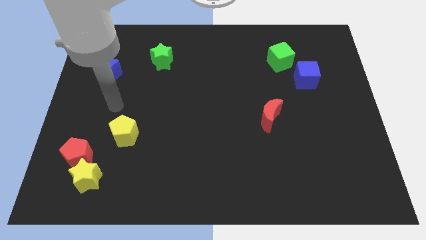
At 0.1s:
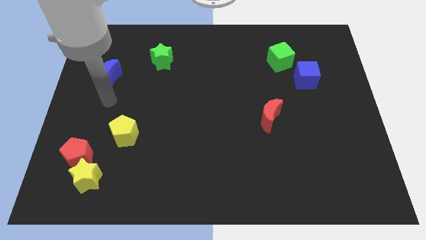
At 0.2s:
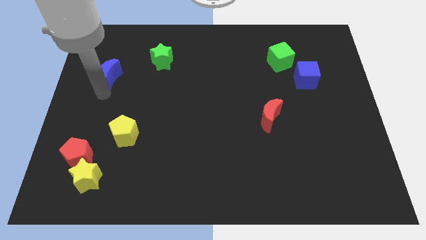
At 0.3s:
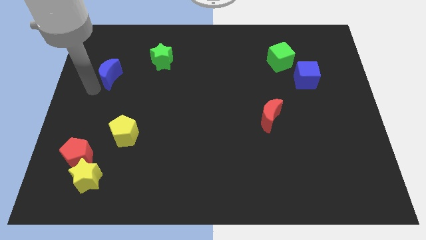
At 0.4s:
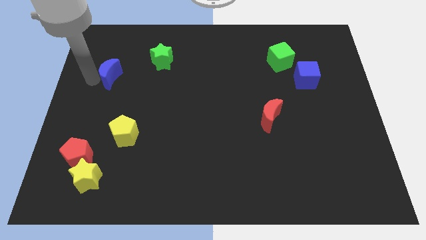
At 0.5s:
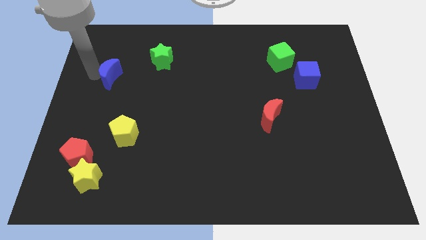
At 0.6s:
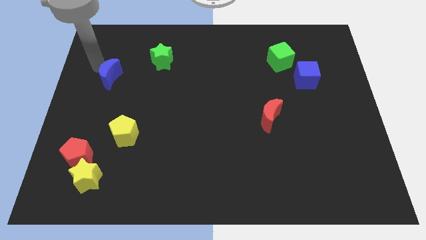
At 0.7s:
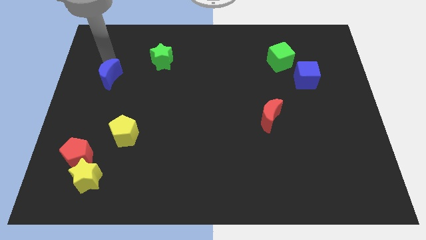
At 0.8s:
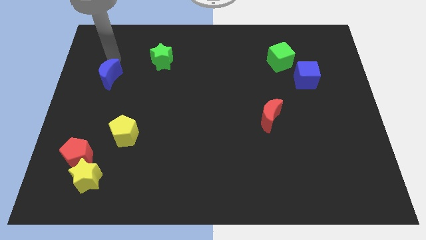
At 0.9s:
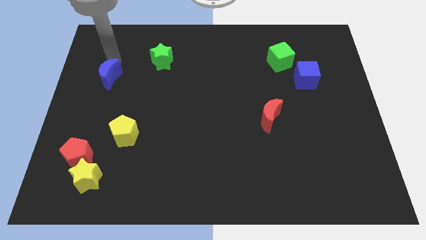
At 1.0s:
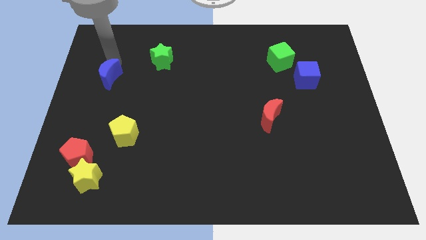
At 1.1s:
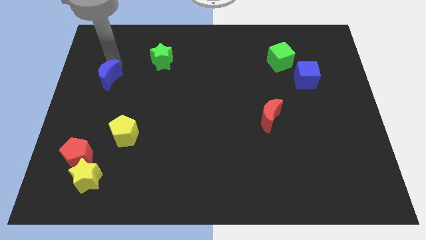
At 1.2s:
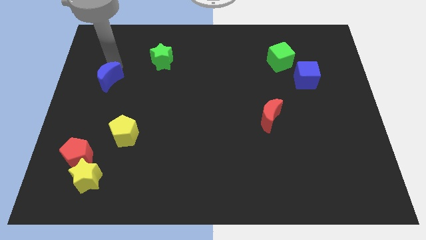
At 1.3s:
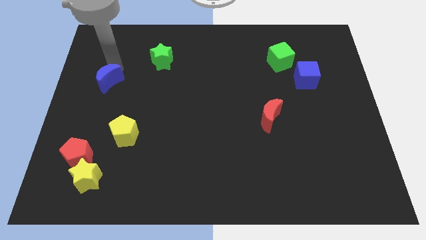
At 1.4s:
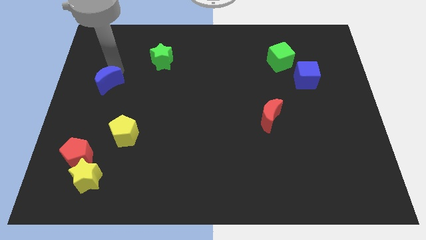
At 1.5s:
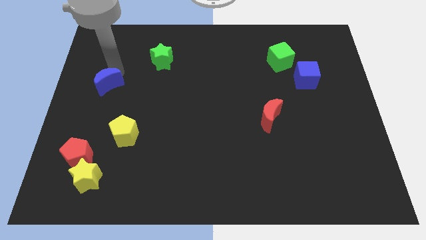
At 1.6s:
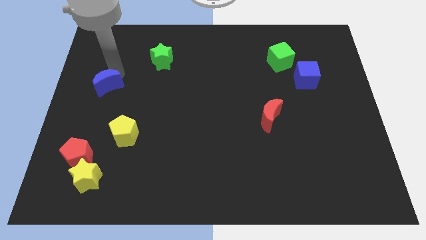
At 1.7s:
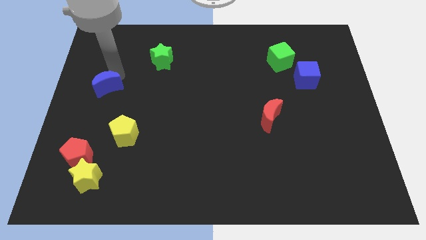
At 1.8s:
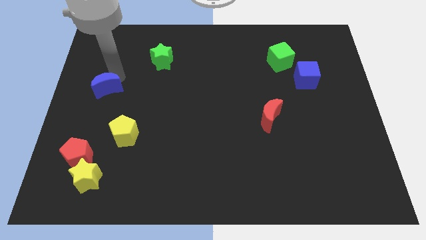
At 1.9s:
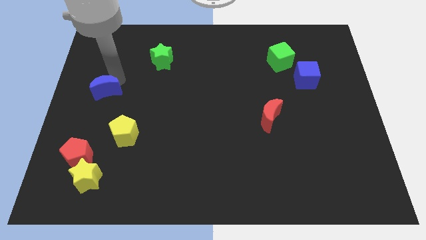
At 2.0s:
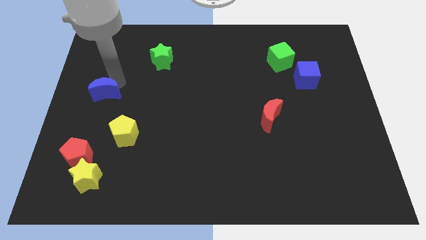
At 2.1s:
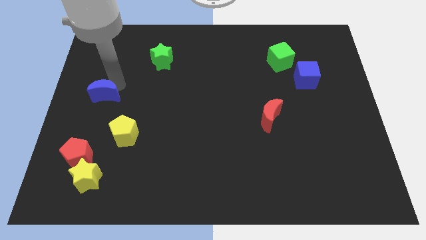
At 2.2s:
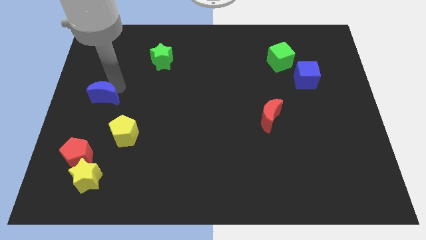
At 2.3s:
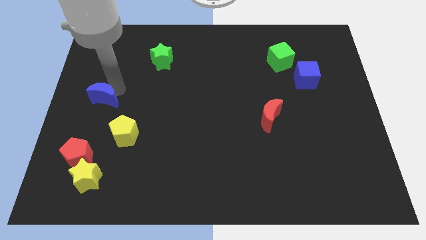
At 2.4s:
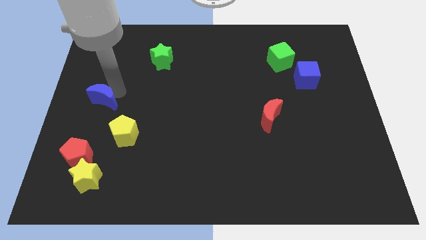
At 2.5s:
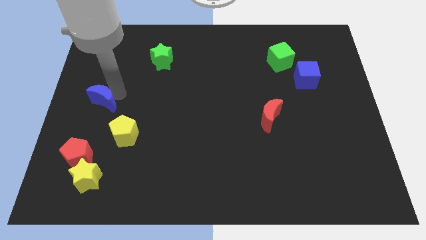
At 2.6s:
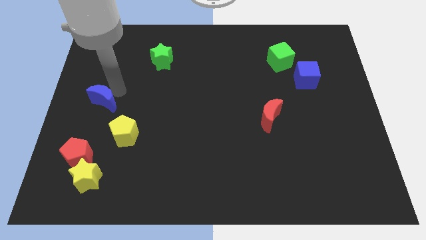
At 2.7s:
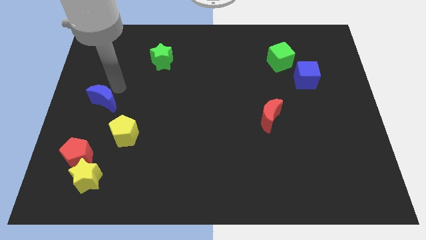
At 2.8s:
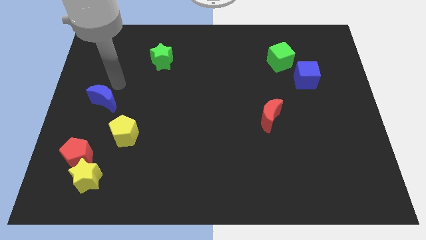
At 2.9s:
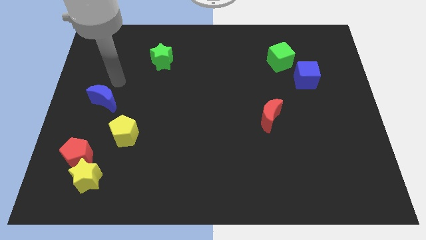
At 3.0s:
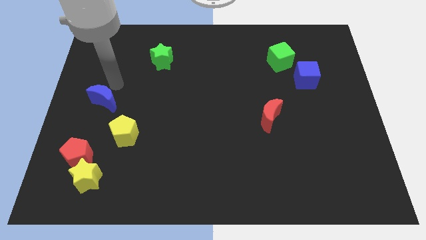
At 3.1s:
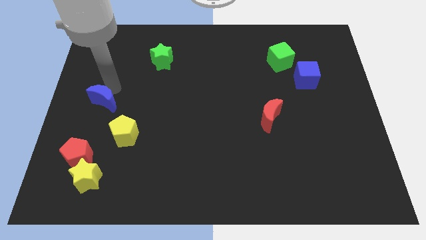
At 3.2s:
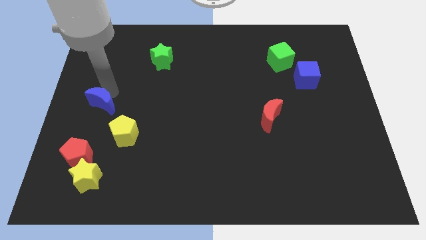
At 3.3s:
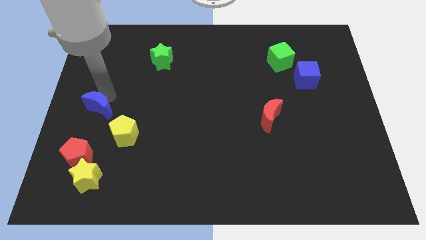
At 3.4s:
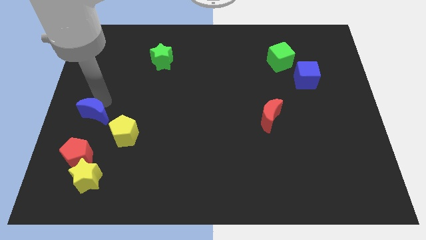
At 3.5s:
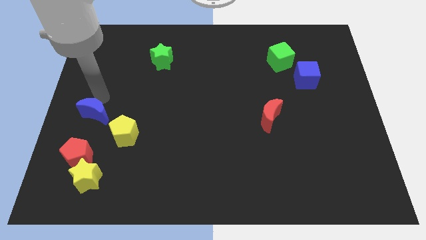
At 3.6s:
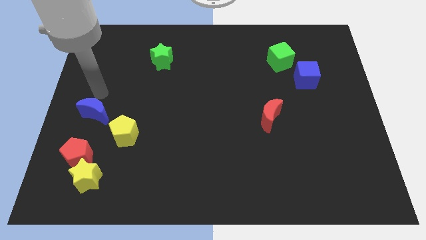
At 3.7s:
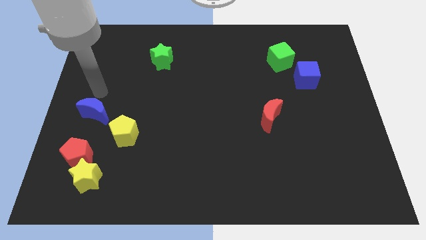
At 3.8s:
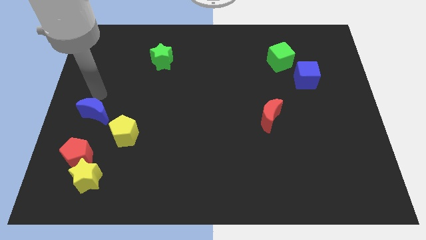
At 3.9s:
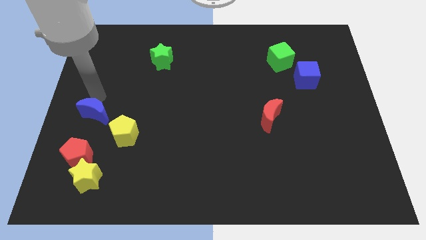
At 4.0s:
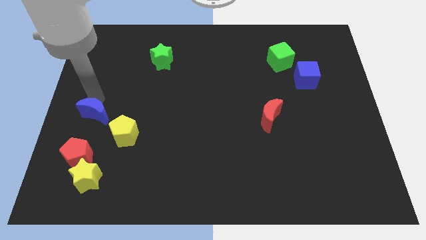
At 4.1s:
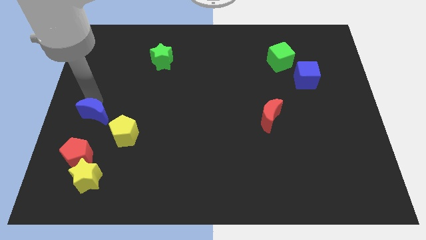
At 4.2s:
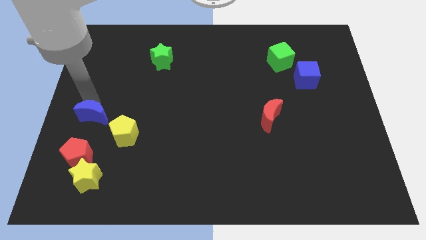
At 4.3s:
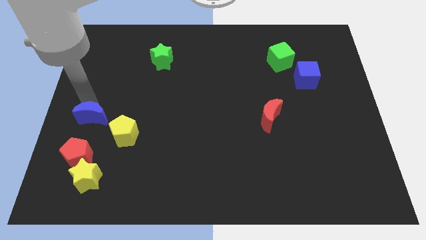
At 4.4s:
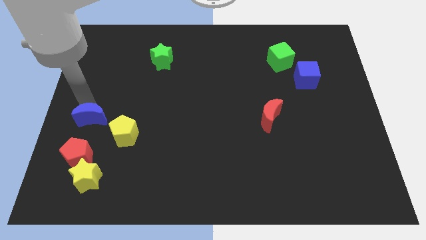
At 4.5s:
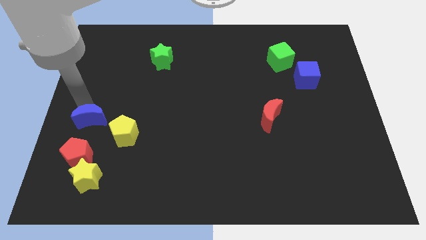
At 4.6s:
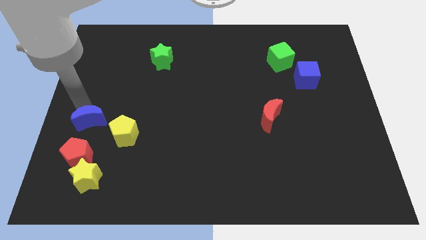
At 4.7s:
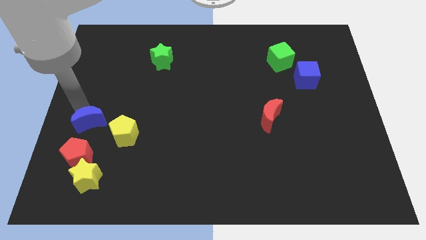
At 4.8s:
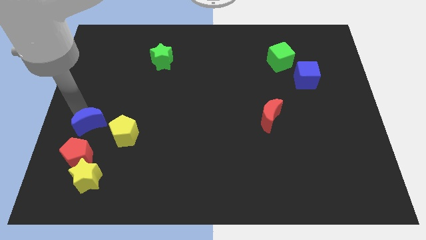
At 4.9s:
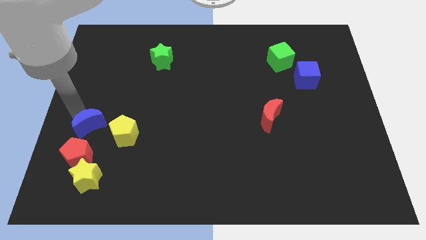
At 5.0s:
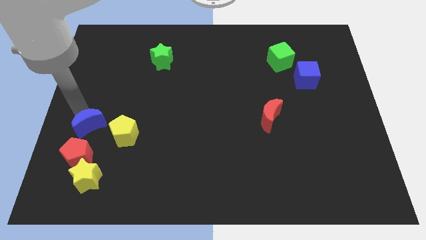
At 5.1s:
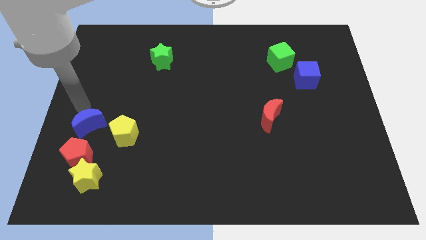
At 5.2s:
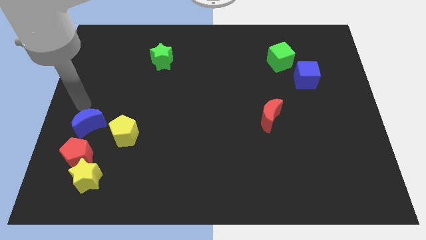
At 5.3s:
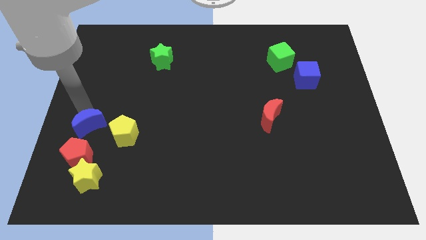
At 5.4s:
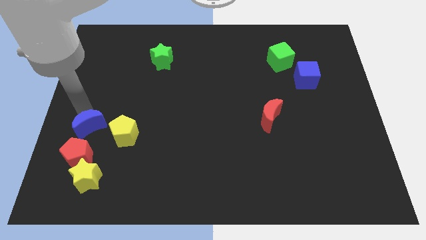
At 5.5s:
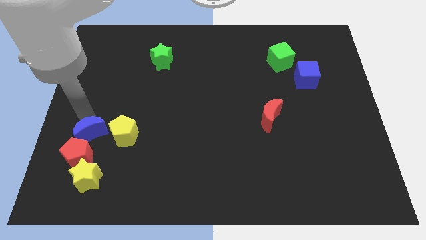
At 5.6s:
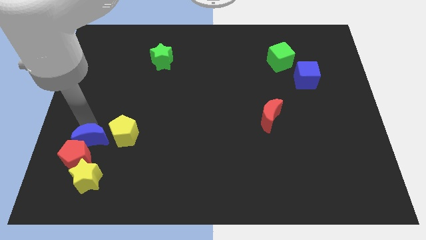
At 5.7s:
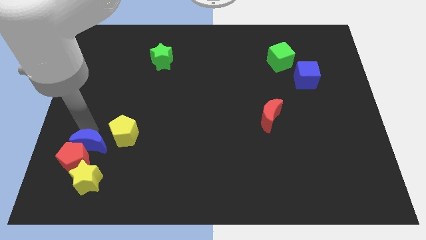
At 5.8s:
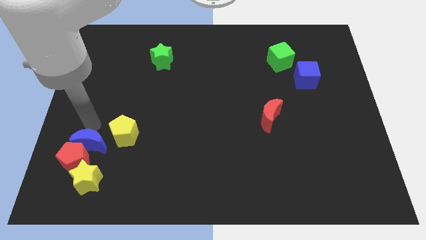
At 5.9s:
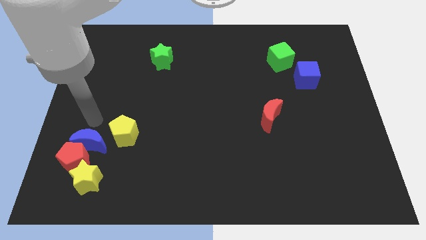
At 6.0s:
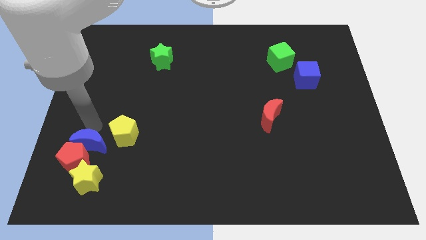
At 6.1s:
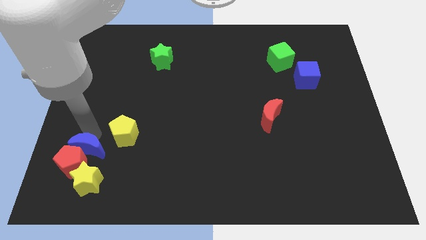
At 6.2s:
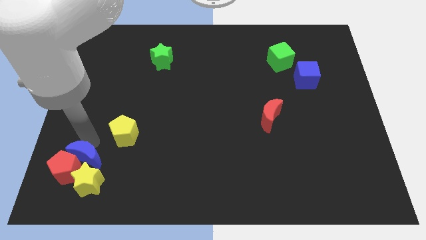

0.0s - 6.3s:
push the blue moon towards the yellow star
